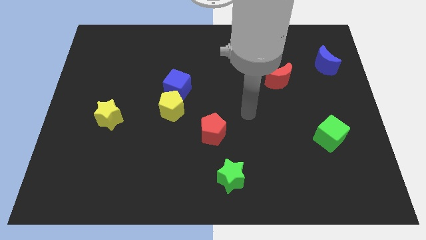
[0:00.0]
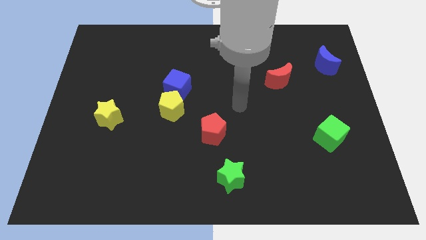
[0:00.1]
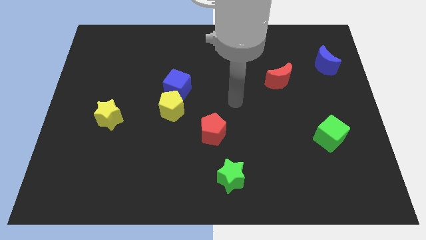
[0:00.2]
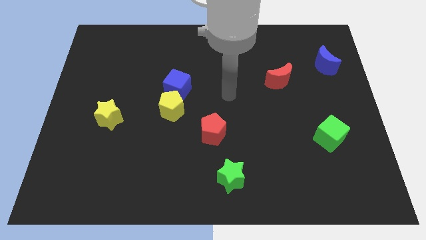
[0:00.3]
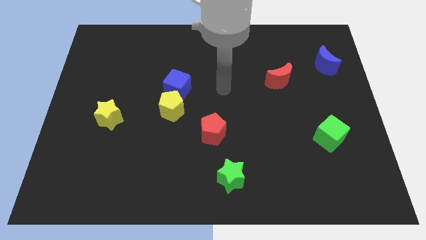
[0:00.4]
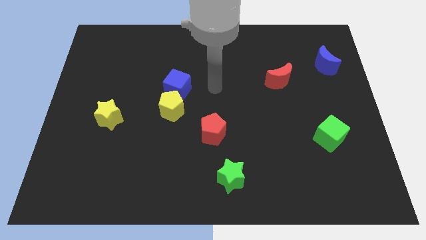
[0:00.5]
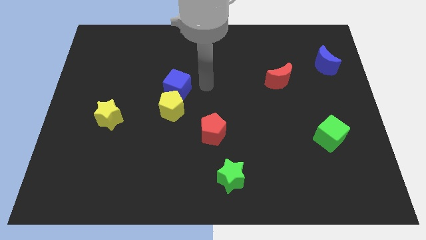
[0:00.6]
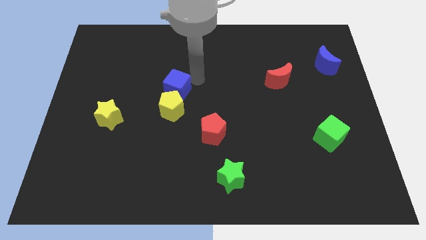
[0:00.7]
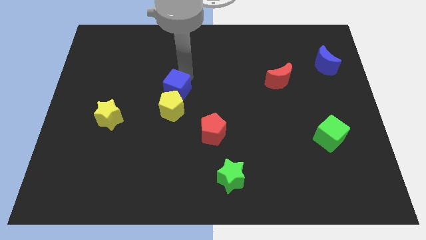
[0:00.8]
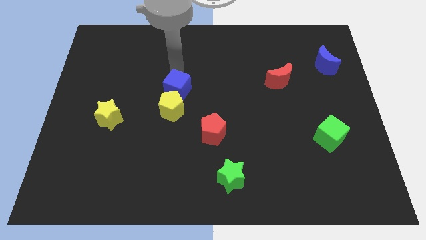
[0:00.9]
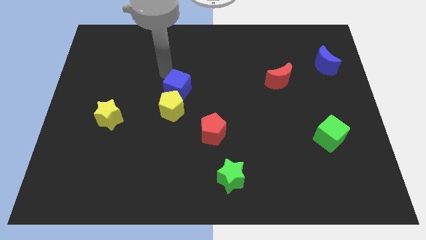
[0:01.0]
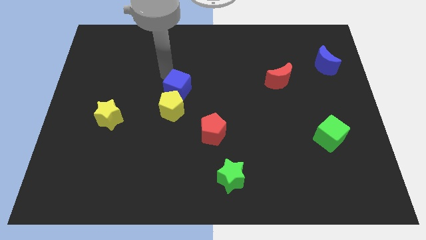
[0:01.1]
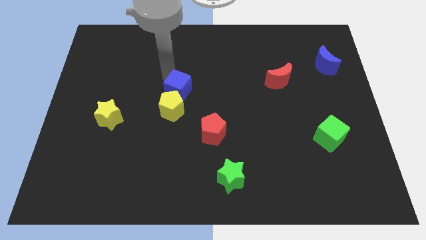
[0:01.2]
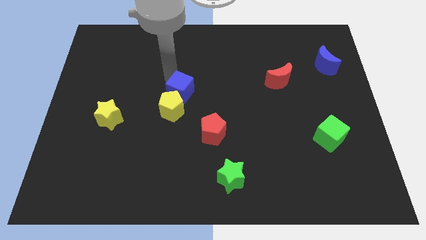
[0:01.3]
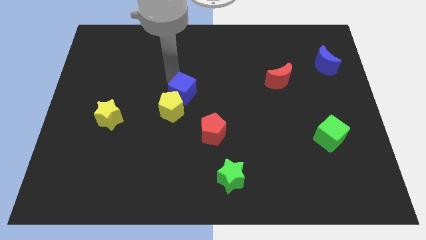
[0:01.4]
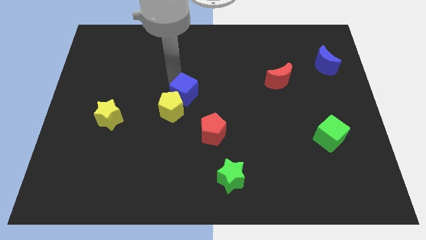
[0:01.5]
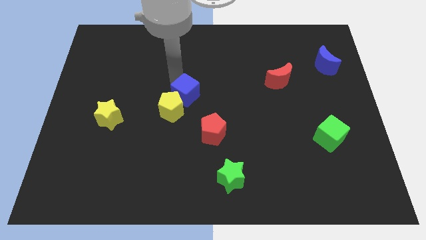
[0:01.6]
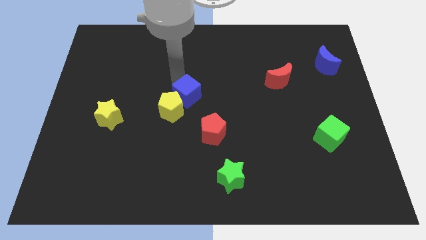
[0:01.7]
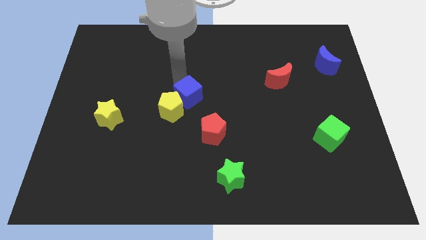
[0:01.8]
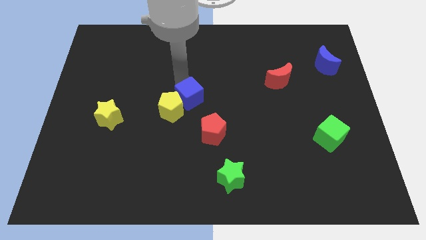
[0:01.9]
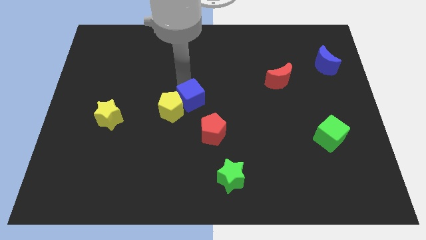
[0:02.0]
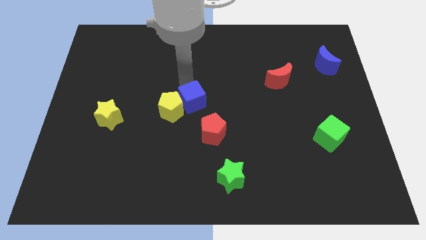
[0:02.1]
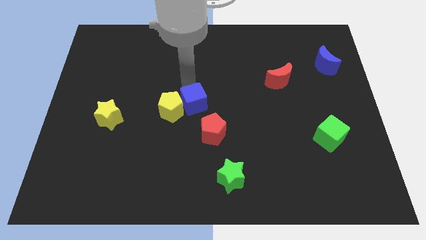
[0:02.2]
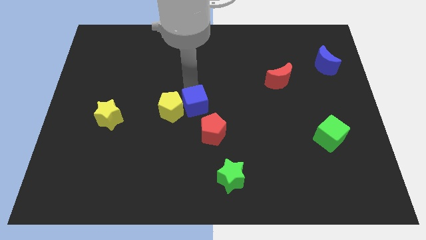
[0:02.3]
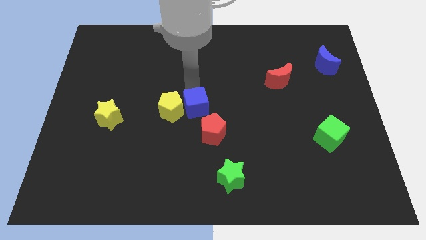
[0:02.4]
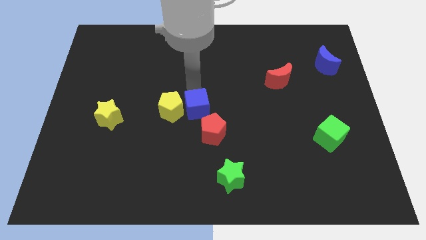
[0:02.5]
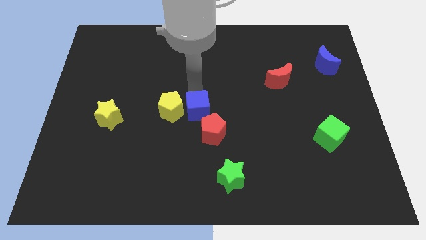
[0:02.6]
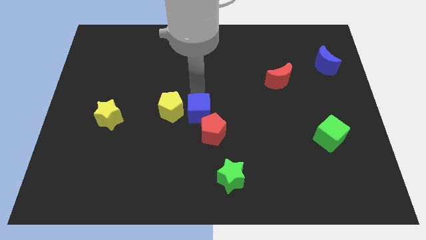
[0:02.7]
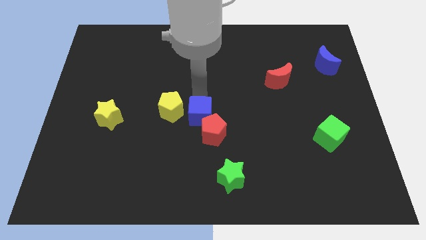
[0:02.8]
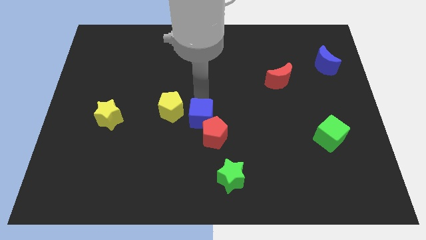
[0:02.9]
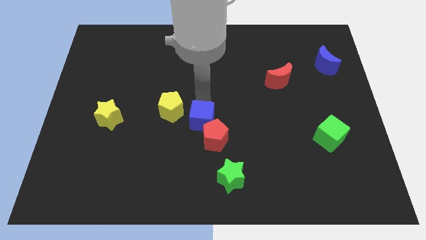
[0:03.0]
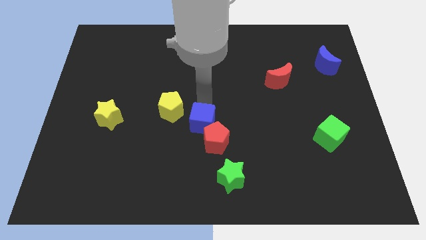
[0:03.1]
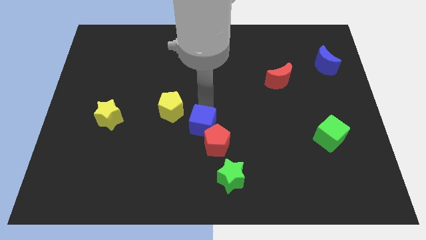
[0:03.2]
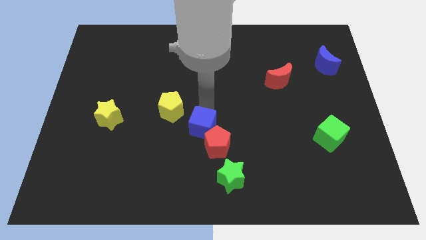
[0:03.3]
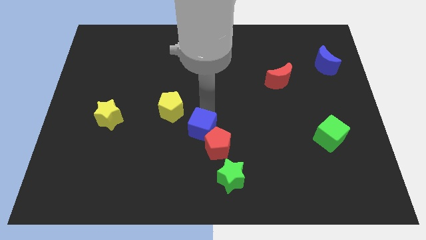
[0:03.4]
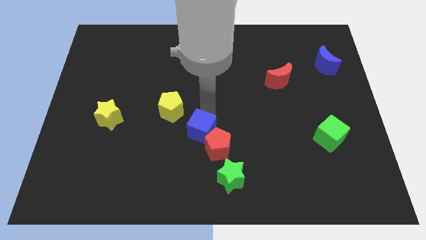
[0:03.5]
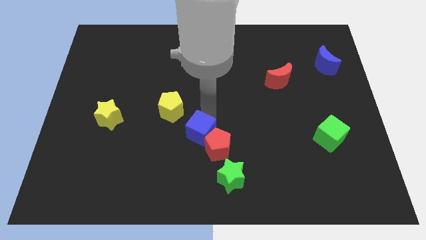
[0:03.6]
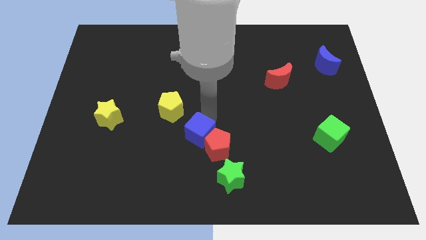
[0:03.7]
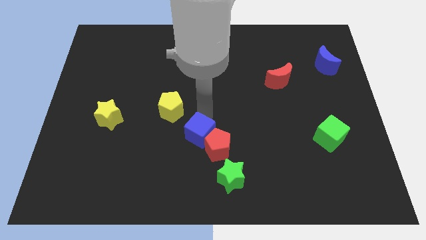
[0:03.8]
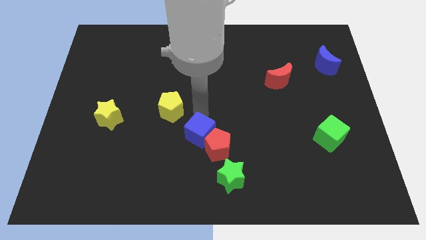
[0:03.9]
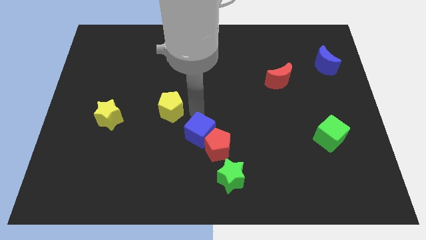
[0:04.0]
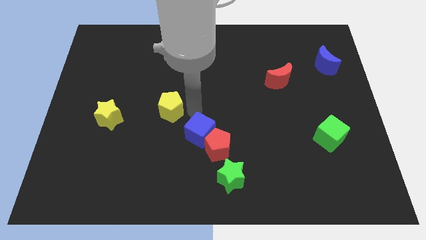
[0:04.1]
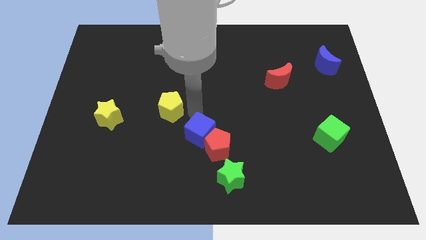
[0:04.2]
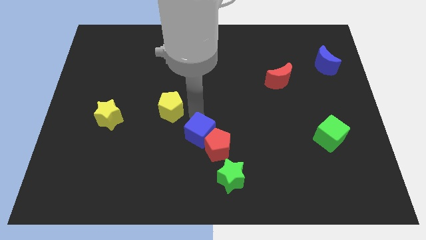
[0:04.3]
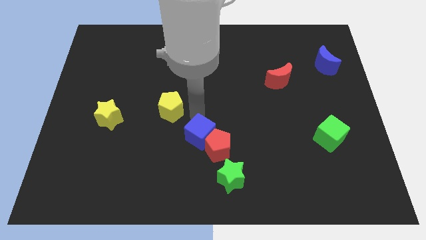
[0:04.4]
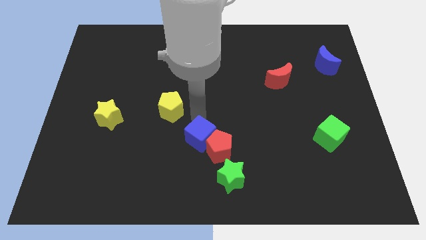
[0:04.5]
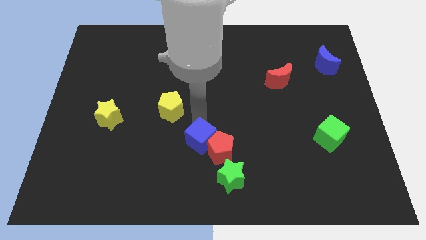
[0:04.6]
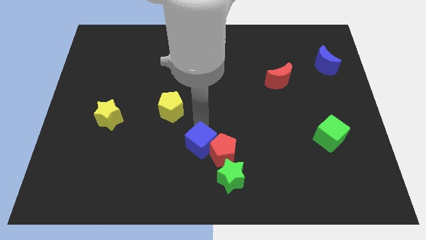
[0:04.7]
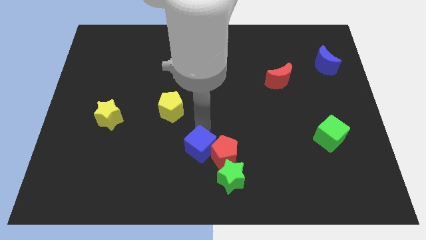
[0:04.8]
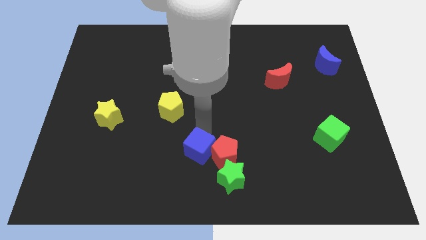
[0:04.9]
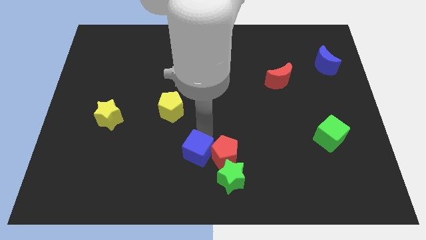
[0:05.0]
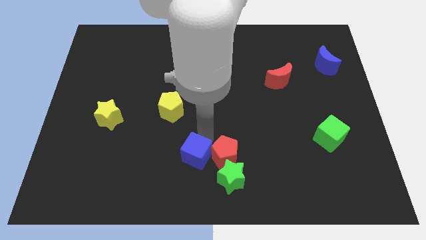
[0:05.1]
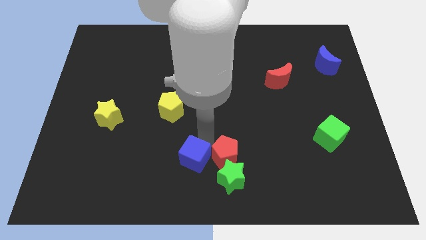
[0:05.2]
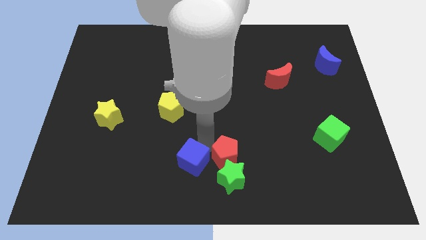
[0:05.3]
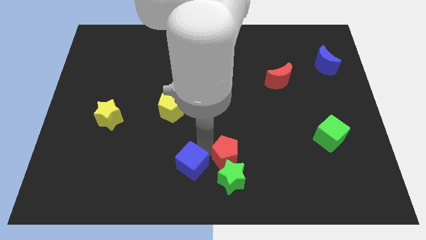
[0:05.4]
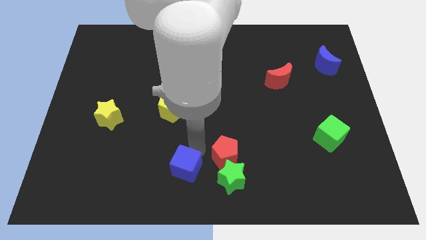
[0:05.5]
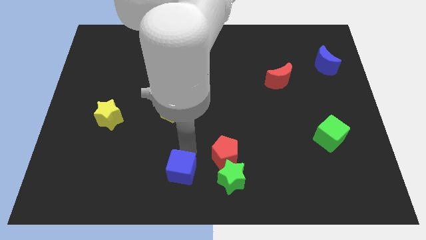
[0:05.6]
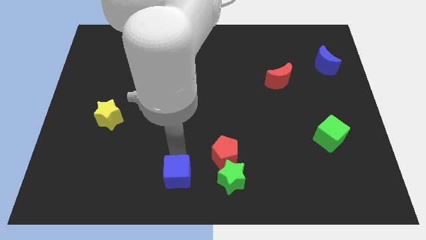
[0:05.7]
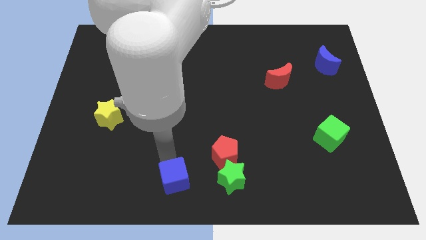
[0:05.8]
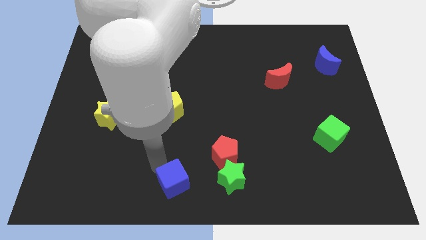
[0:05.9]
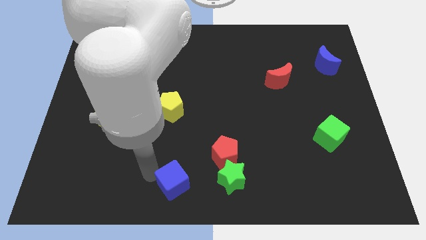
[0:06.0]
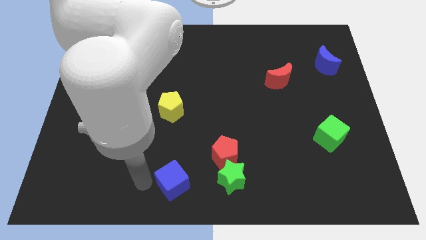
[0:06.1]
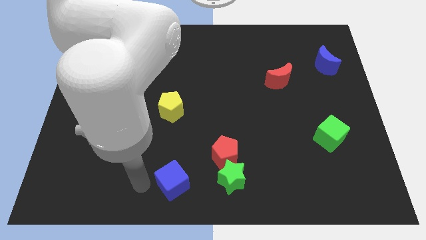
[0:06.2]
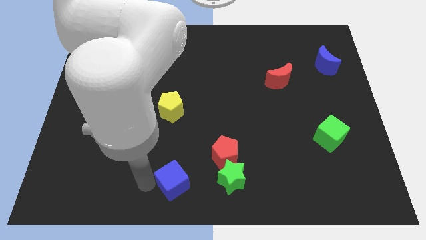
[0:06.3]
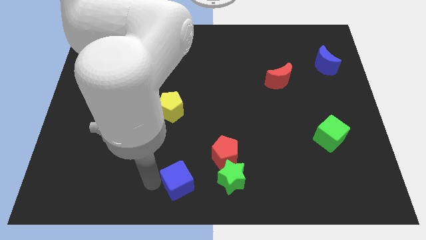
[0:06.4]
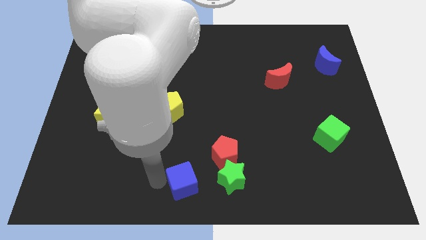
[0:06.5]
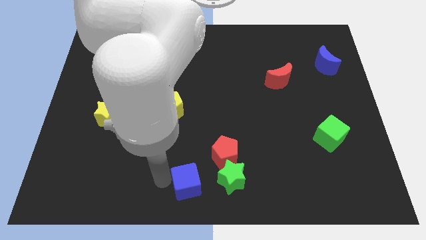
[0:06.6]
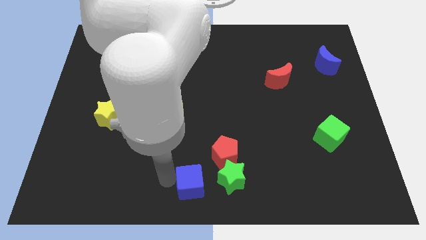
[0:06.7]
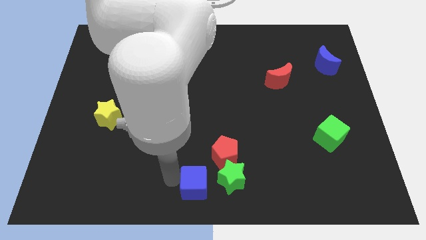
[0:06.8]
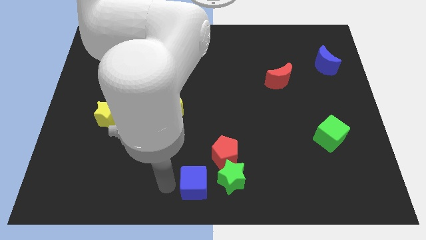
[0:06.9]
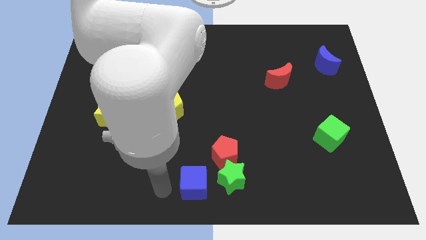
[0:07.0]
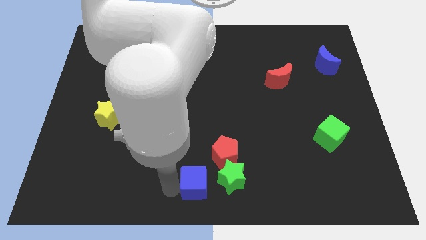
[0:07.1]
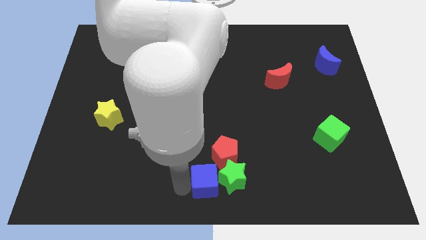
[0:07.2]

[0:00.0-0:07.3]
push the blue cube to the green star

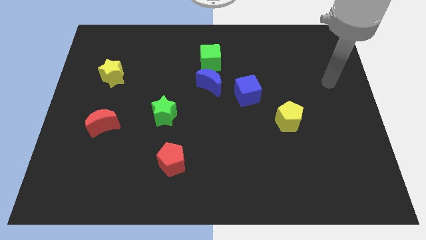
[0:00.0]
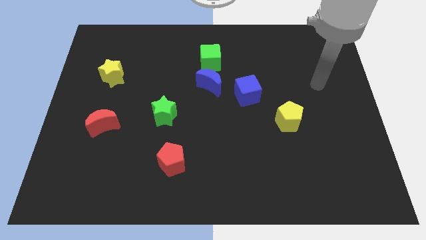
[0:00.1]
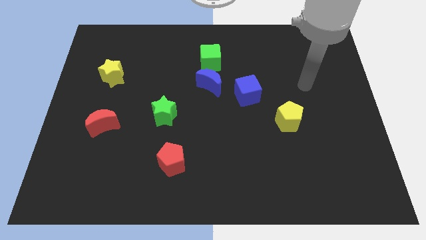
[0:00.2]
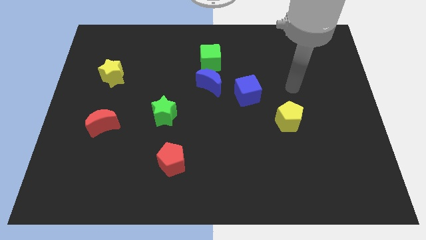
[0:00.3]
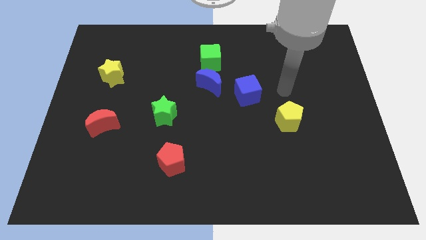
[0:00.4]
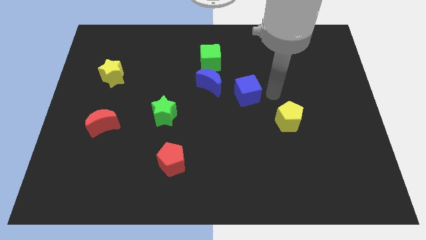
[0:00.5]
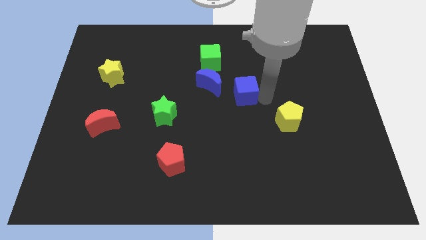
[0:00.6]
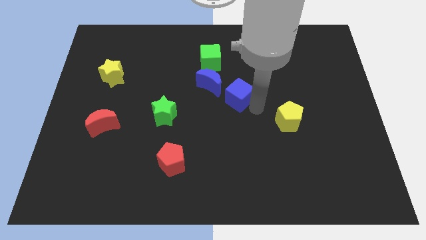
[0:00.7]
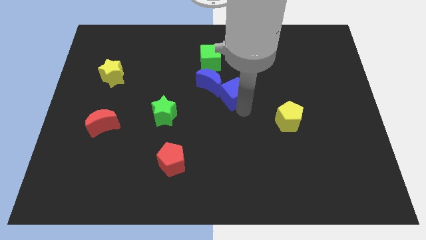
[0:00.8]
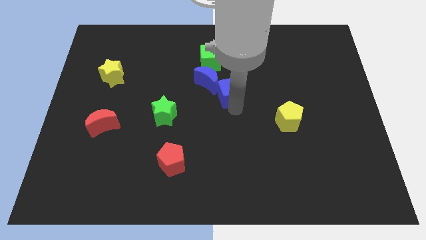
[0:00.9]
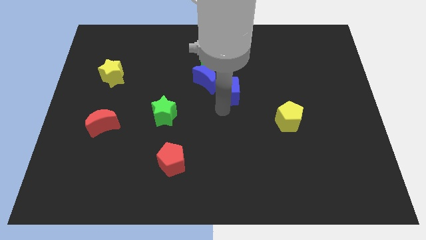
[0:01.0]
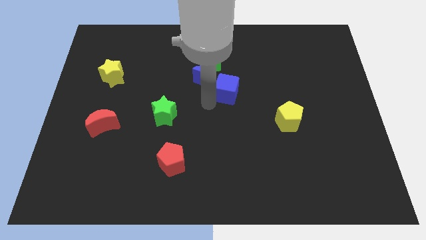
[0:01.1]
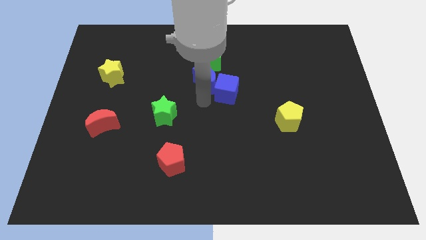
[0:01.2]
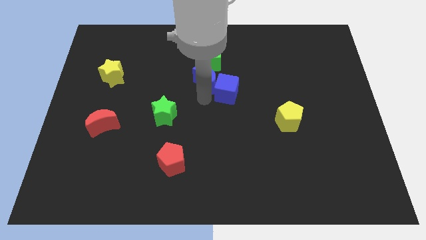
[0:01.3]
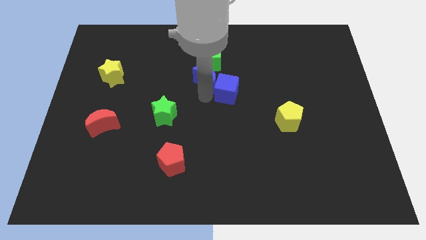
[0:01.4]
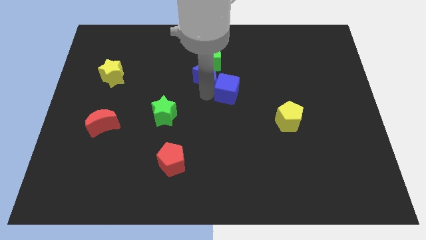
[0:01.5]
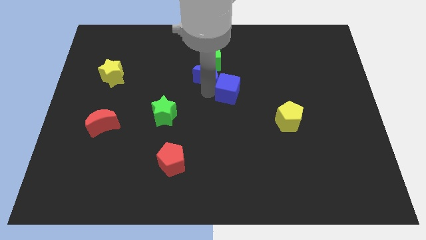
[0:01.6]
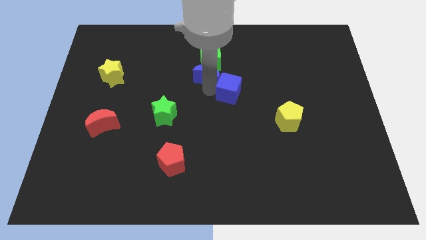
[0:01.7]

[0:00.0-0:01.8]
move the blue moon next to the green cube
